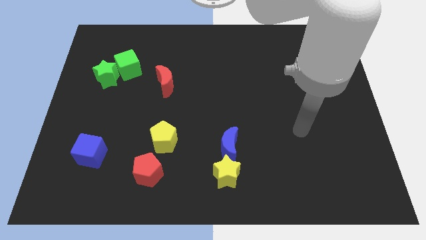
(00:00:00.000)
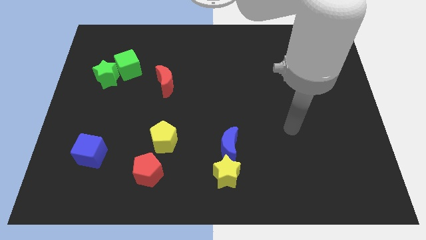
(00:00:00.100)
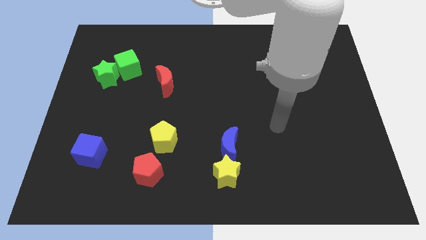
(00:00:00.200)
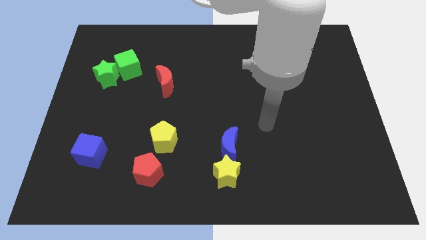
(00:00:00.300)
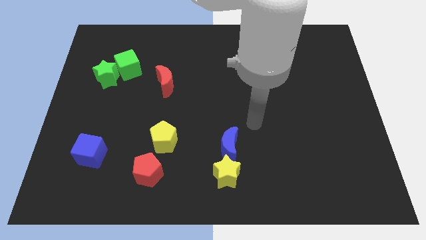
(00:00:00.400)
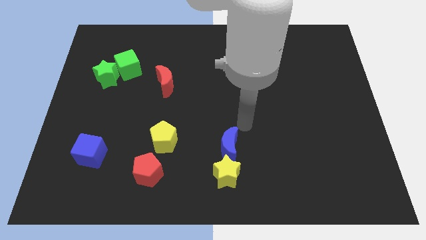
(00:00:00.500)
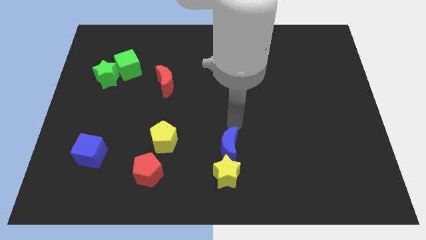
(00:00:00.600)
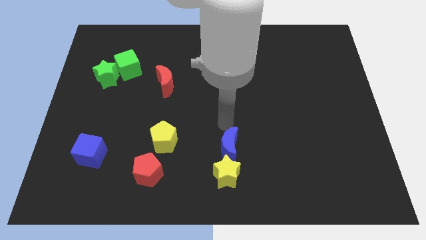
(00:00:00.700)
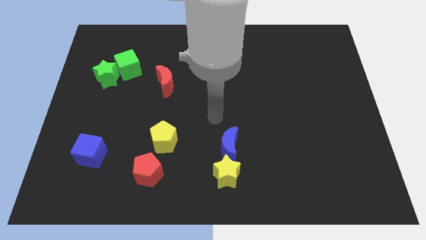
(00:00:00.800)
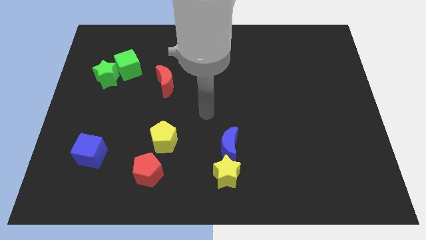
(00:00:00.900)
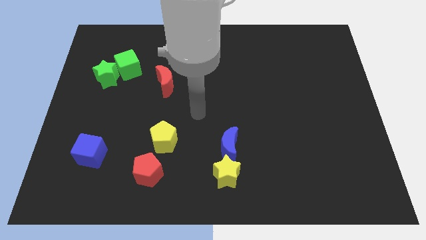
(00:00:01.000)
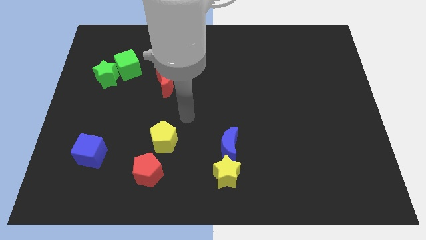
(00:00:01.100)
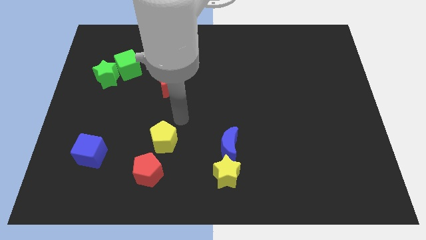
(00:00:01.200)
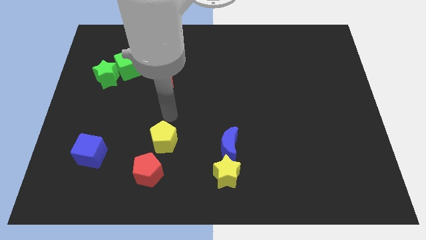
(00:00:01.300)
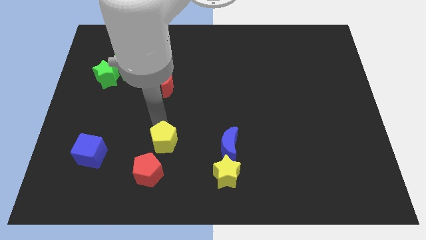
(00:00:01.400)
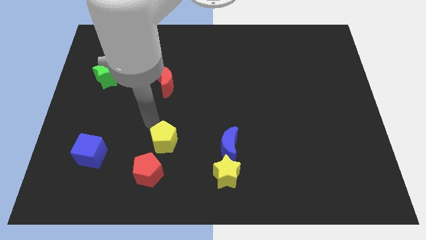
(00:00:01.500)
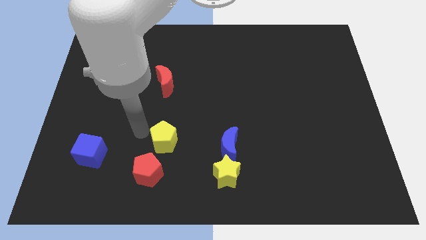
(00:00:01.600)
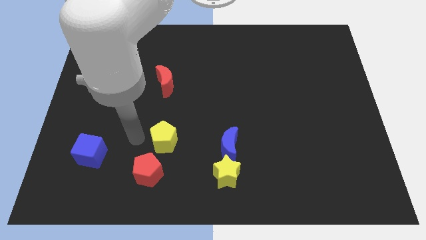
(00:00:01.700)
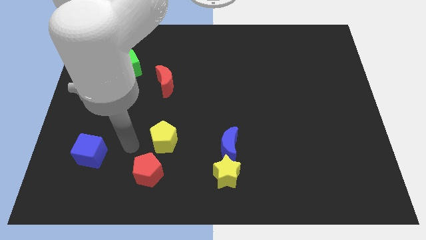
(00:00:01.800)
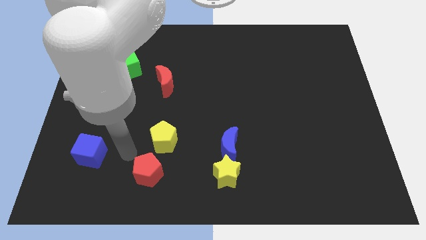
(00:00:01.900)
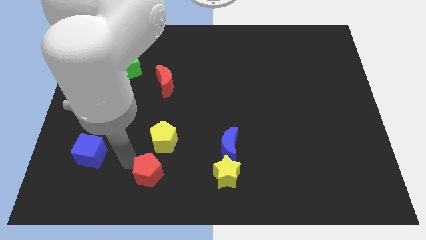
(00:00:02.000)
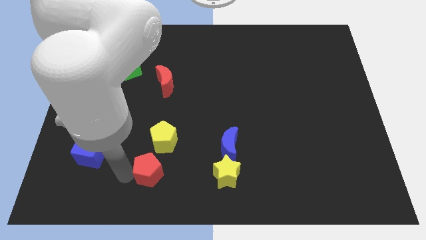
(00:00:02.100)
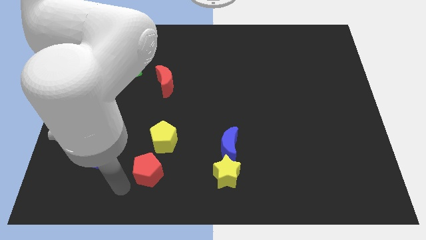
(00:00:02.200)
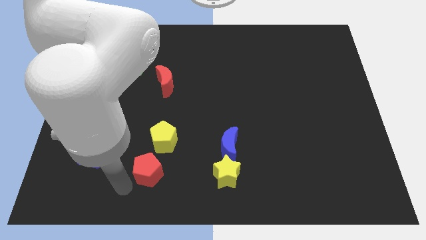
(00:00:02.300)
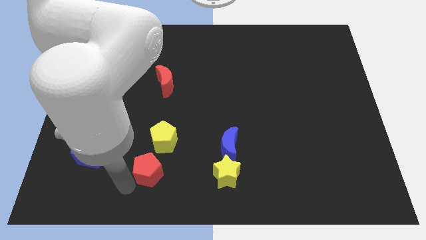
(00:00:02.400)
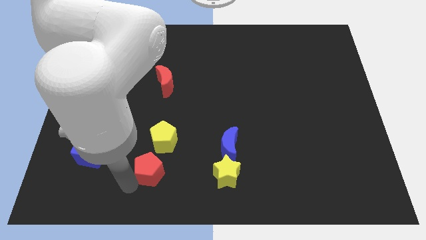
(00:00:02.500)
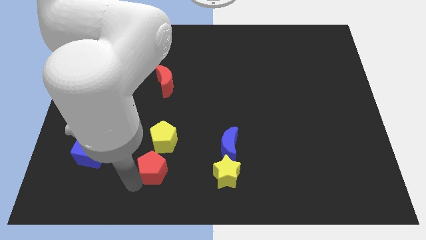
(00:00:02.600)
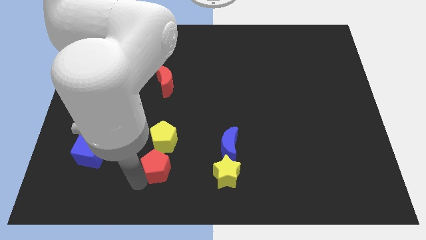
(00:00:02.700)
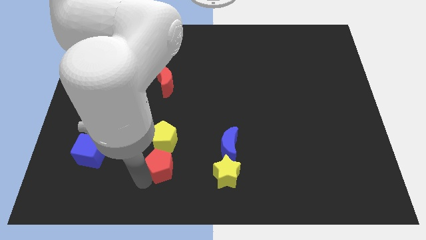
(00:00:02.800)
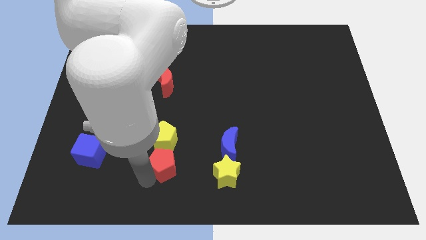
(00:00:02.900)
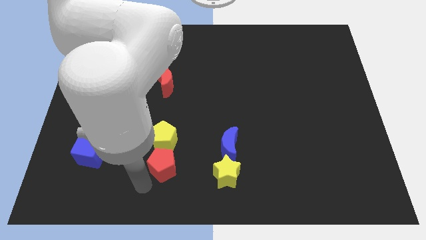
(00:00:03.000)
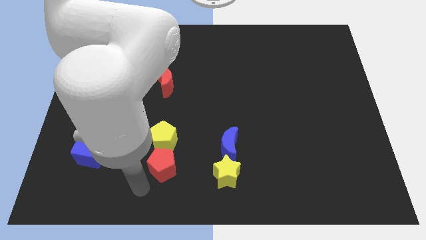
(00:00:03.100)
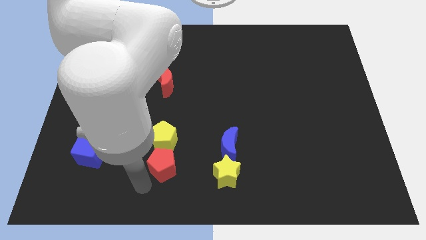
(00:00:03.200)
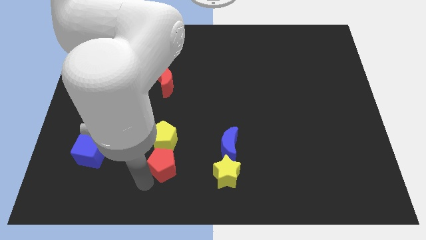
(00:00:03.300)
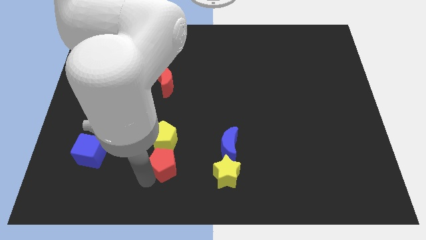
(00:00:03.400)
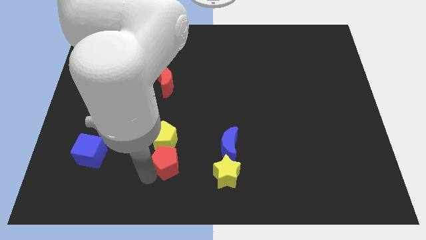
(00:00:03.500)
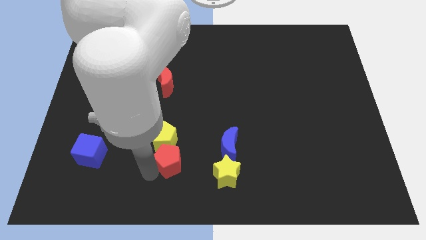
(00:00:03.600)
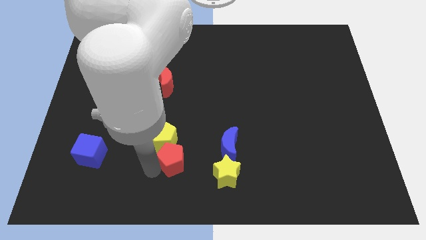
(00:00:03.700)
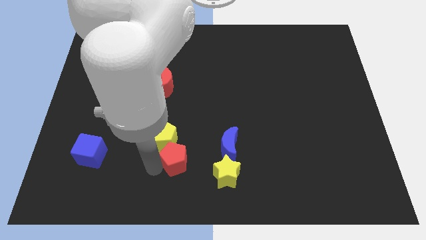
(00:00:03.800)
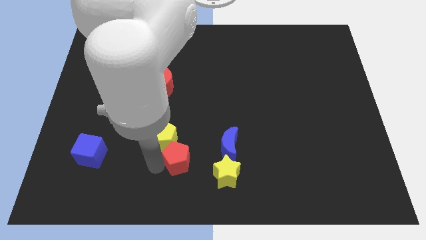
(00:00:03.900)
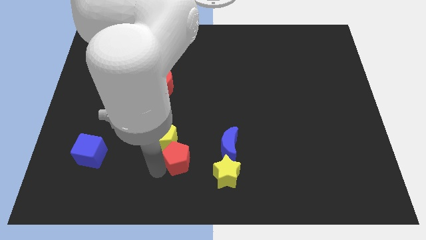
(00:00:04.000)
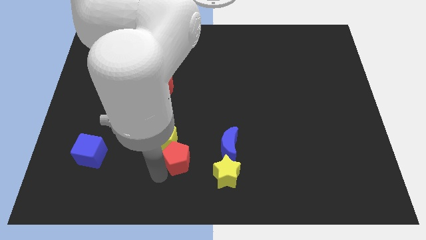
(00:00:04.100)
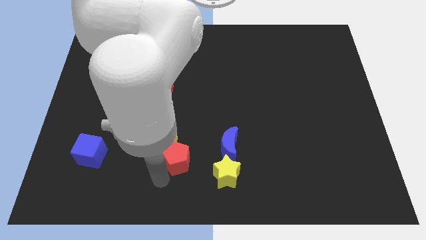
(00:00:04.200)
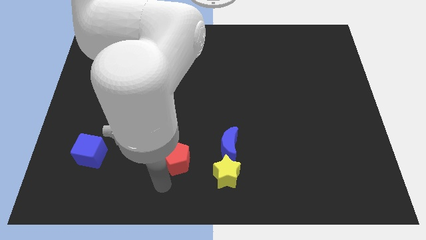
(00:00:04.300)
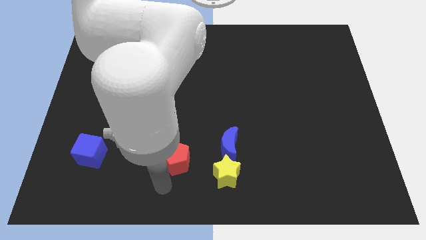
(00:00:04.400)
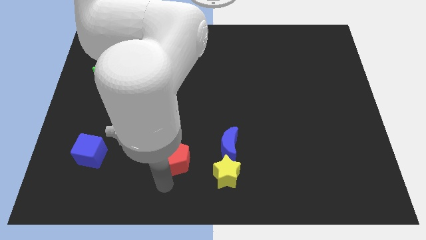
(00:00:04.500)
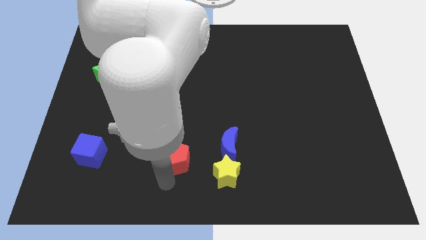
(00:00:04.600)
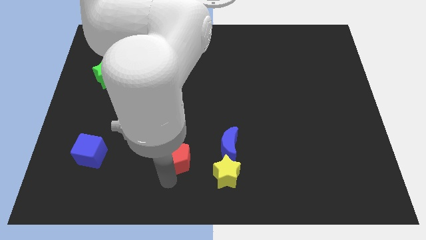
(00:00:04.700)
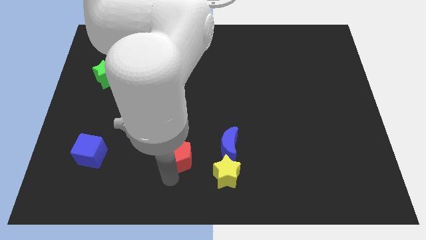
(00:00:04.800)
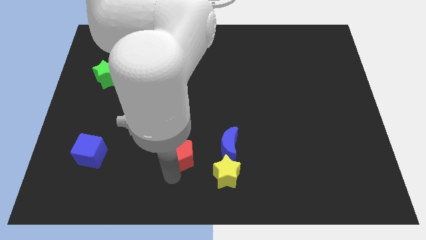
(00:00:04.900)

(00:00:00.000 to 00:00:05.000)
slide the red pentagon a little bit upwards and right diagonally

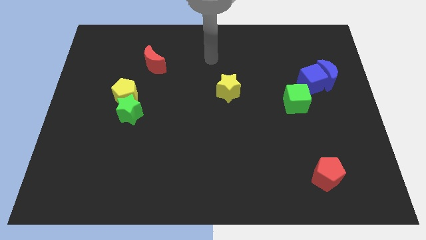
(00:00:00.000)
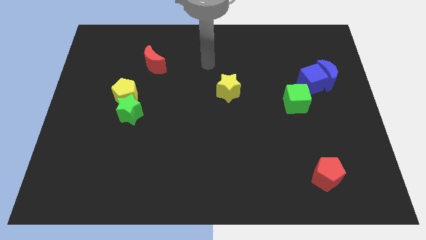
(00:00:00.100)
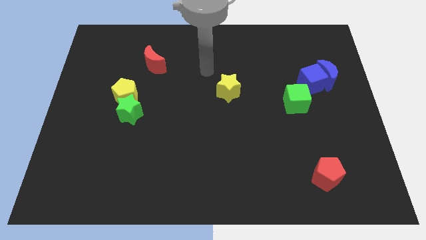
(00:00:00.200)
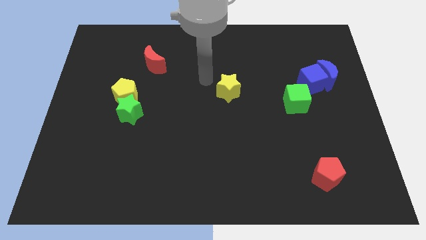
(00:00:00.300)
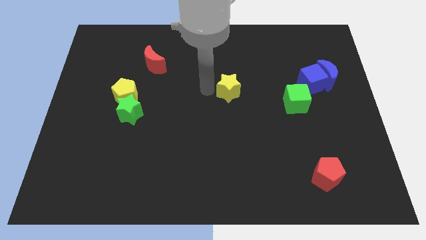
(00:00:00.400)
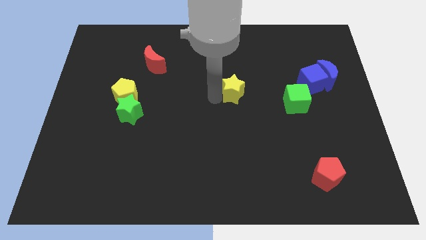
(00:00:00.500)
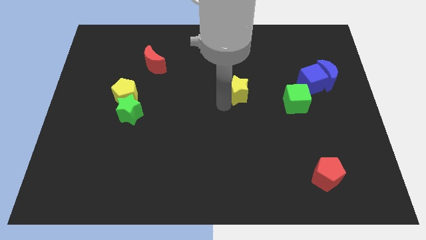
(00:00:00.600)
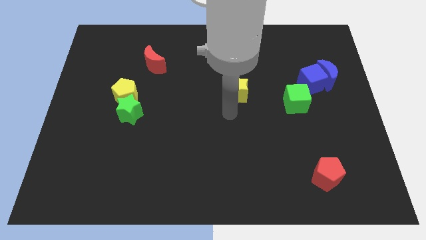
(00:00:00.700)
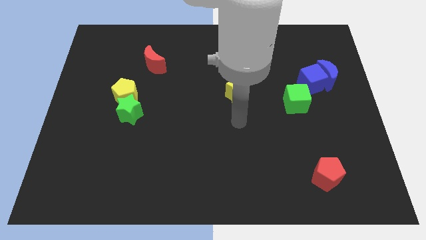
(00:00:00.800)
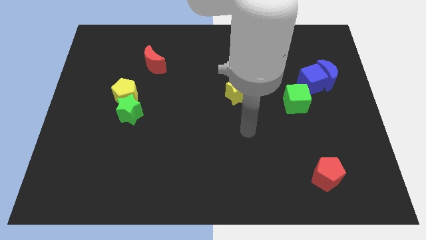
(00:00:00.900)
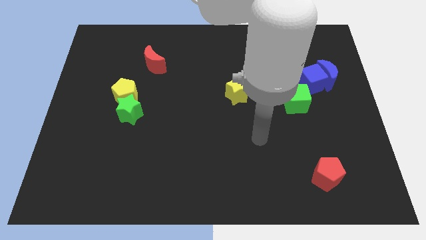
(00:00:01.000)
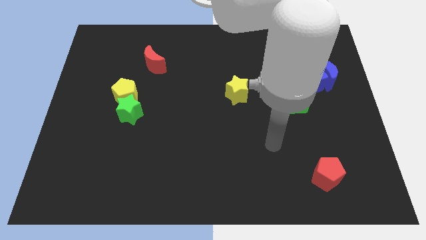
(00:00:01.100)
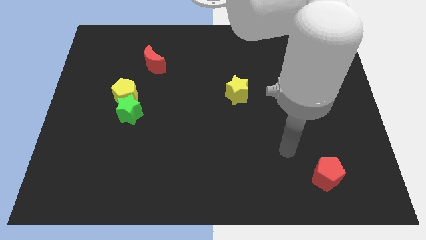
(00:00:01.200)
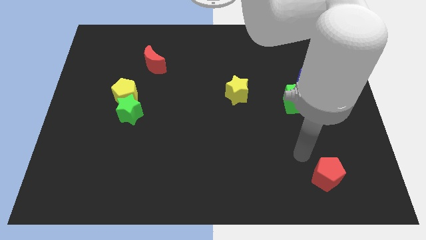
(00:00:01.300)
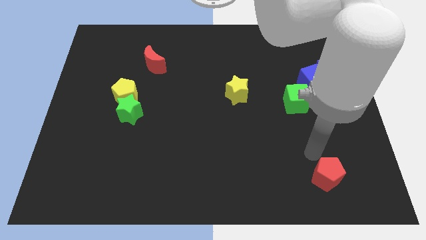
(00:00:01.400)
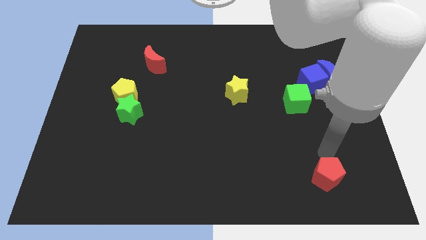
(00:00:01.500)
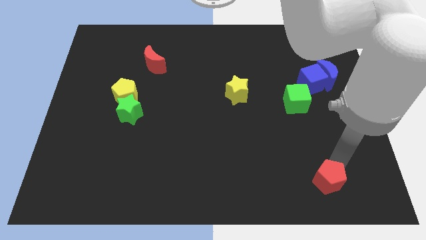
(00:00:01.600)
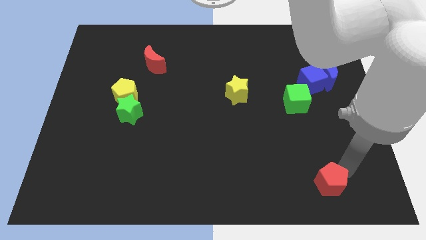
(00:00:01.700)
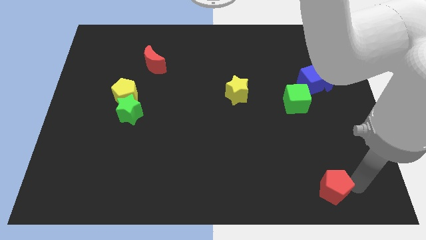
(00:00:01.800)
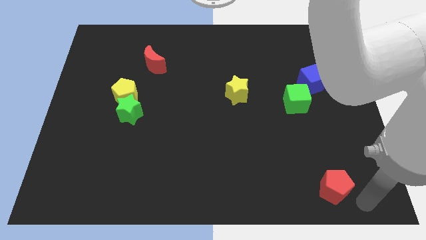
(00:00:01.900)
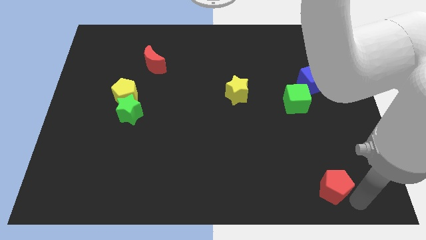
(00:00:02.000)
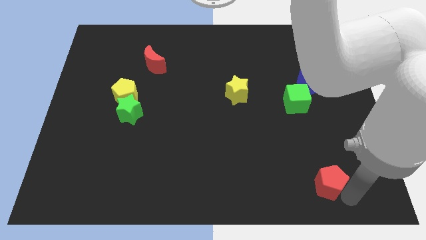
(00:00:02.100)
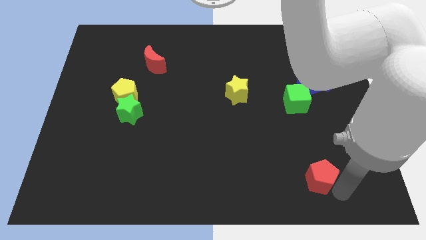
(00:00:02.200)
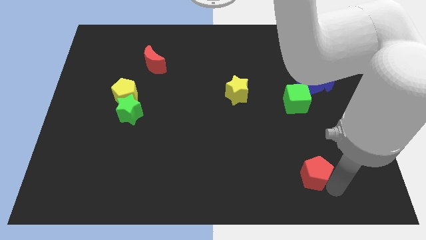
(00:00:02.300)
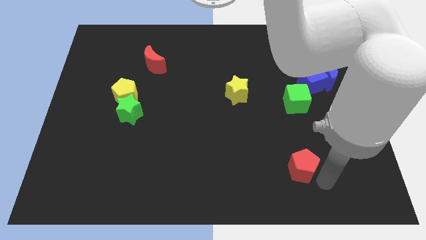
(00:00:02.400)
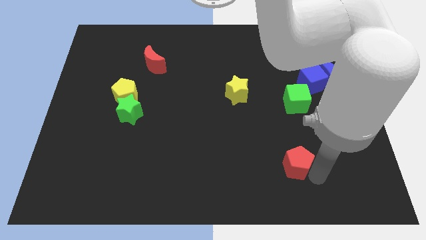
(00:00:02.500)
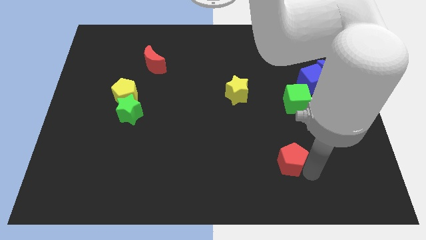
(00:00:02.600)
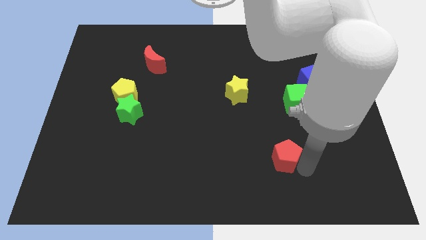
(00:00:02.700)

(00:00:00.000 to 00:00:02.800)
slightly push the red pentagon to the left

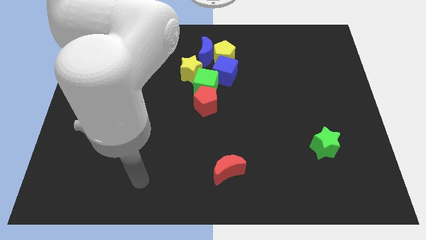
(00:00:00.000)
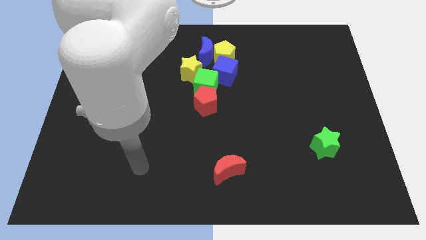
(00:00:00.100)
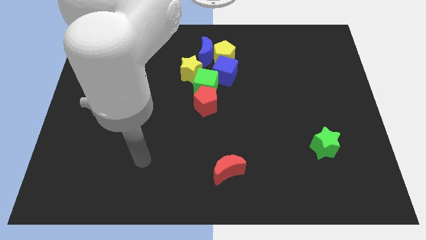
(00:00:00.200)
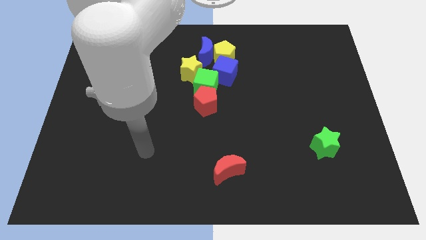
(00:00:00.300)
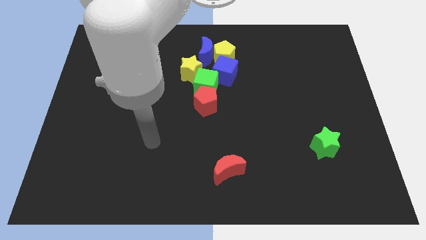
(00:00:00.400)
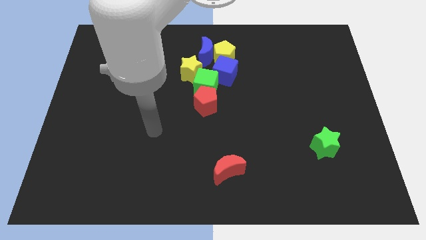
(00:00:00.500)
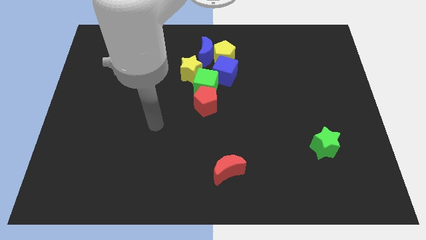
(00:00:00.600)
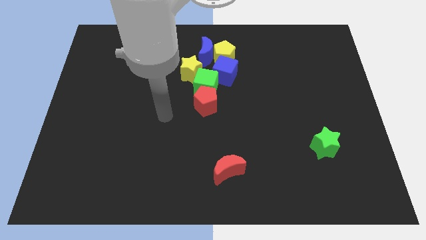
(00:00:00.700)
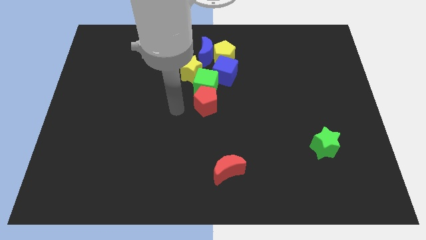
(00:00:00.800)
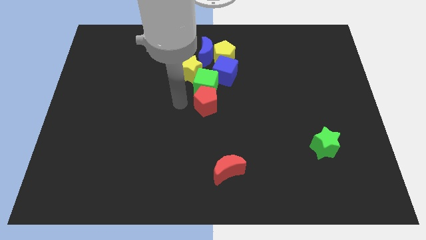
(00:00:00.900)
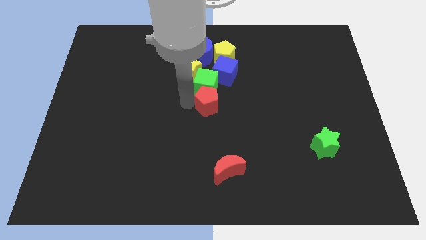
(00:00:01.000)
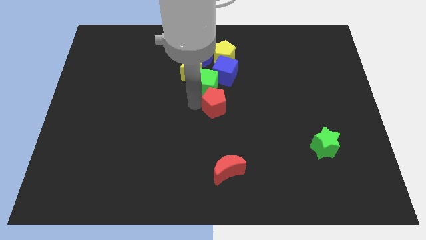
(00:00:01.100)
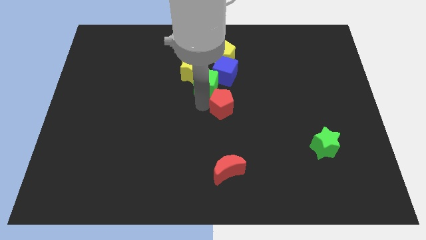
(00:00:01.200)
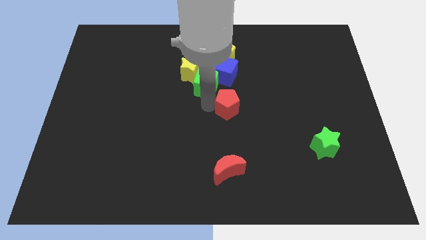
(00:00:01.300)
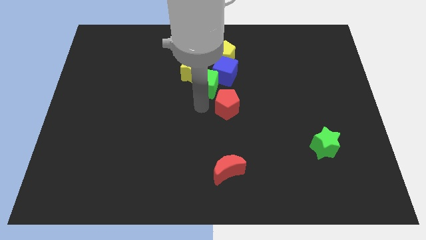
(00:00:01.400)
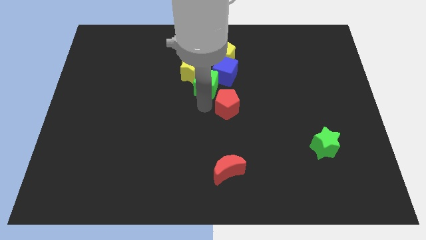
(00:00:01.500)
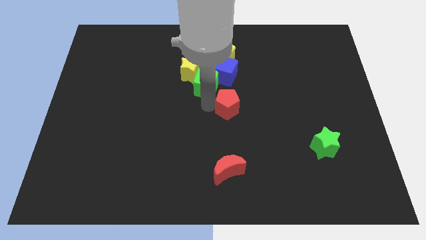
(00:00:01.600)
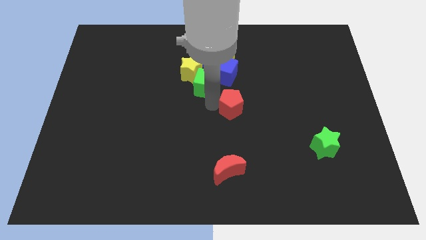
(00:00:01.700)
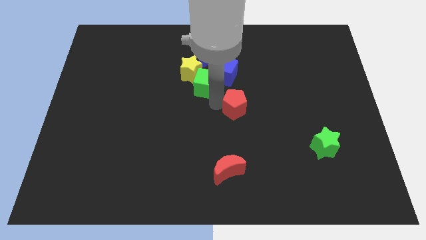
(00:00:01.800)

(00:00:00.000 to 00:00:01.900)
slightly move the red pentagon to the right
